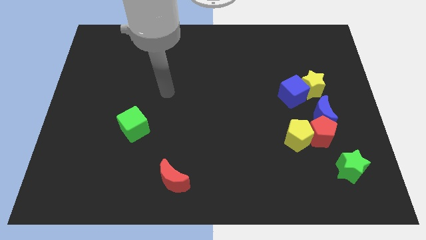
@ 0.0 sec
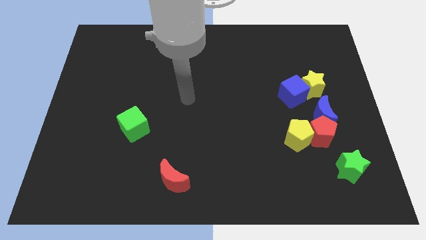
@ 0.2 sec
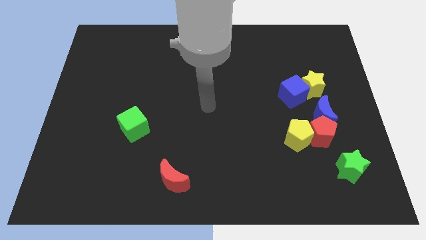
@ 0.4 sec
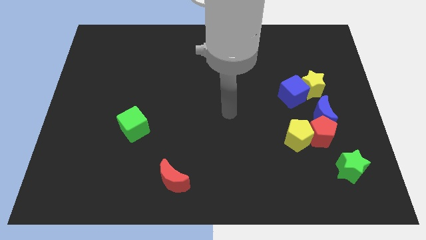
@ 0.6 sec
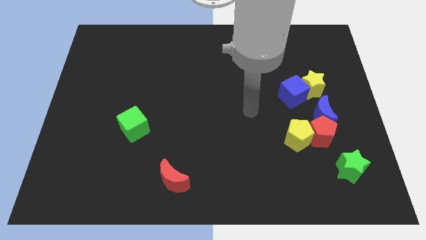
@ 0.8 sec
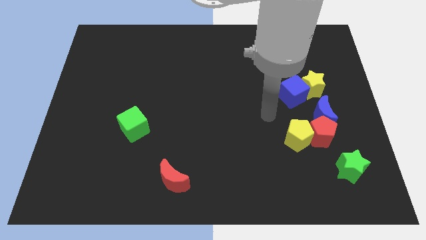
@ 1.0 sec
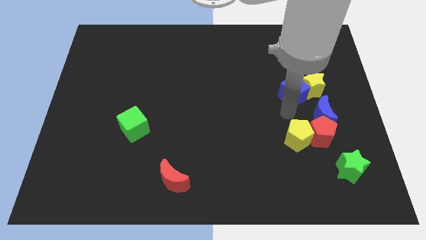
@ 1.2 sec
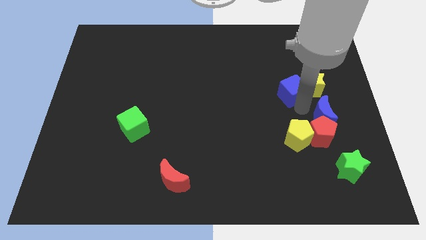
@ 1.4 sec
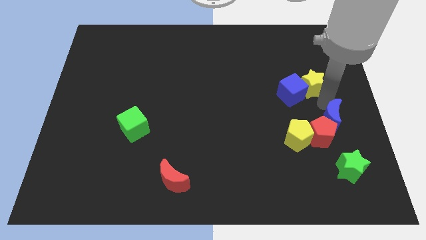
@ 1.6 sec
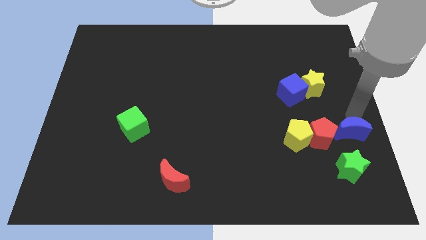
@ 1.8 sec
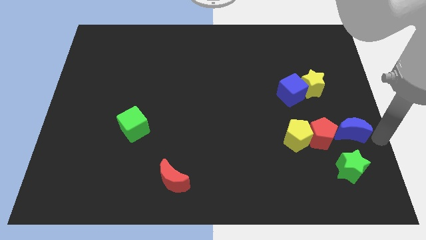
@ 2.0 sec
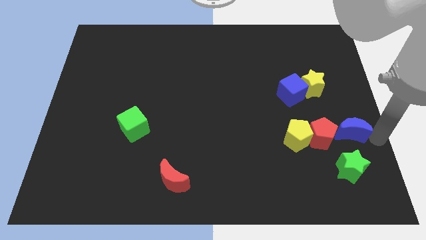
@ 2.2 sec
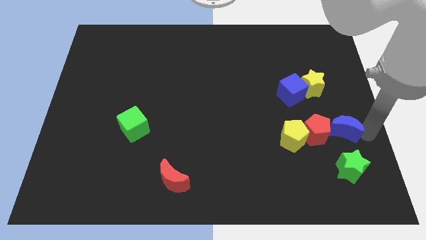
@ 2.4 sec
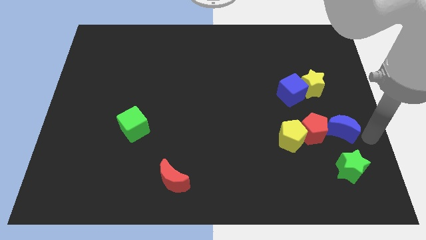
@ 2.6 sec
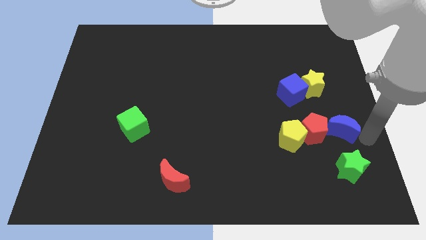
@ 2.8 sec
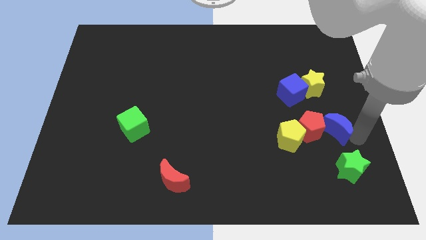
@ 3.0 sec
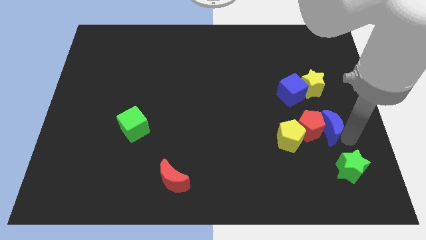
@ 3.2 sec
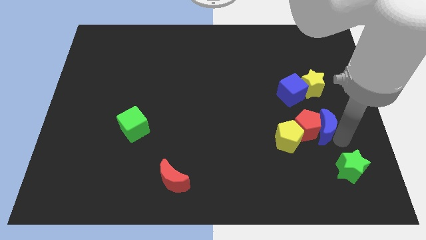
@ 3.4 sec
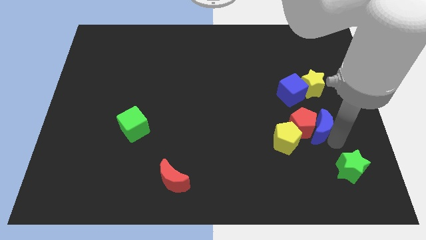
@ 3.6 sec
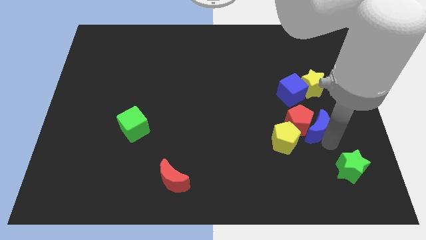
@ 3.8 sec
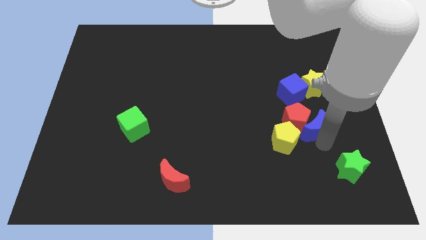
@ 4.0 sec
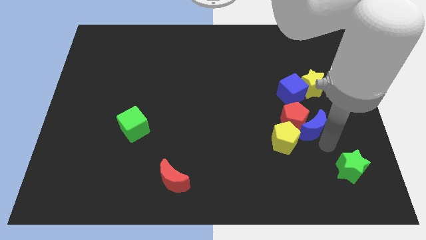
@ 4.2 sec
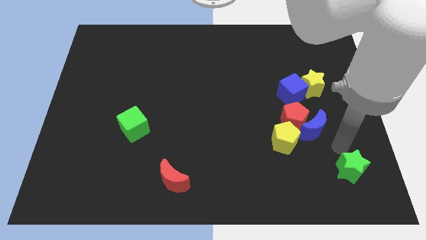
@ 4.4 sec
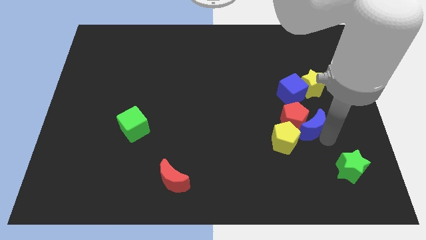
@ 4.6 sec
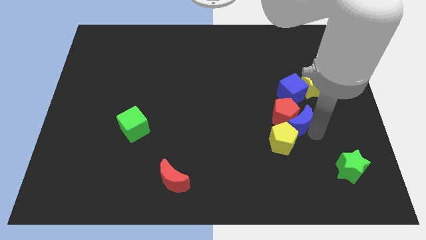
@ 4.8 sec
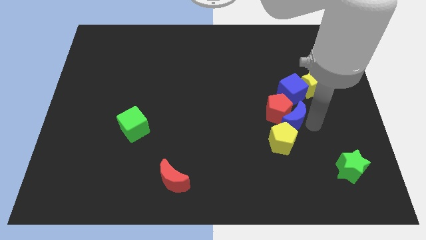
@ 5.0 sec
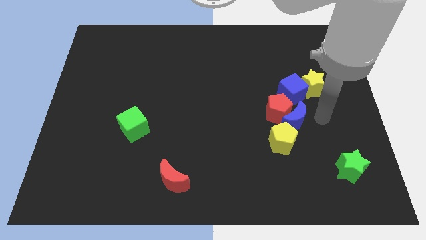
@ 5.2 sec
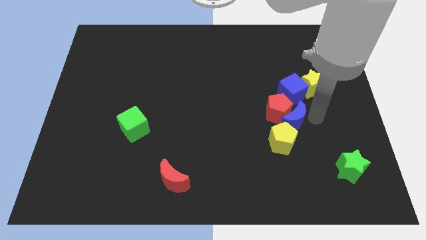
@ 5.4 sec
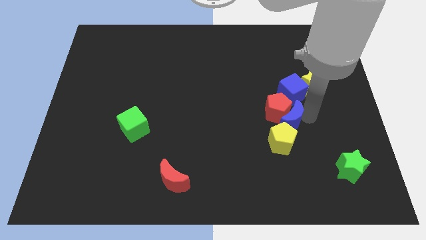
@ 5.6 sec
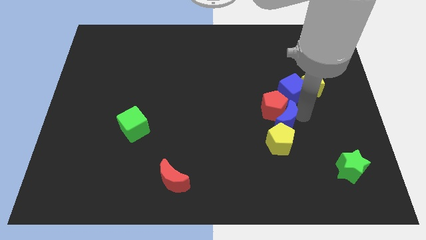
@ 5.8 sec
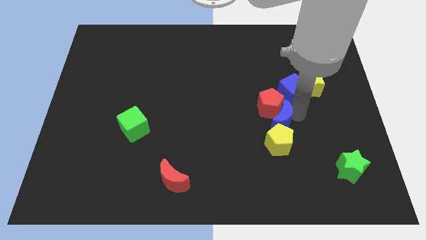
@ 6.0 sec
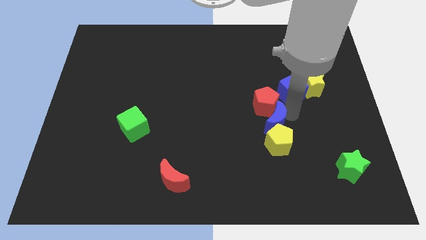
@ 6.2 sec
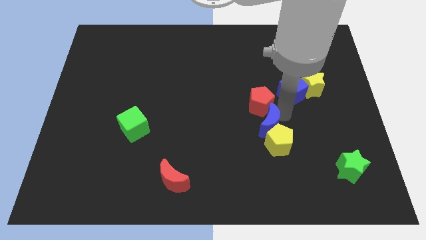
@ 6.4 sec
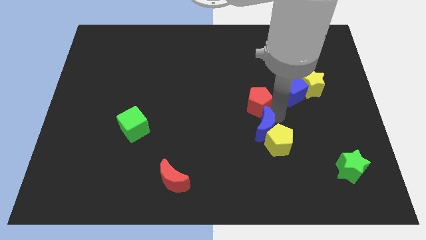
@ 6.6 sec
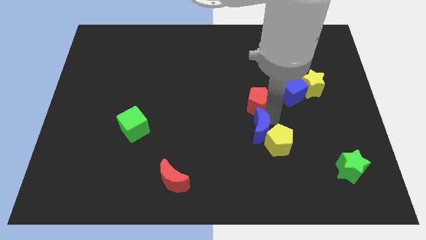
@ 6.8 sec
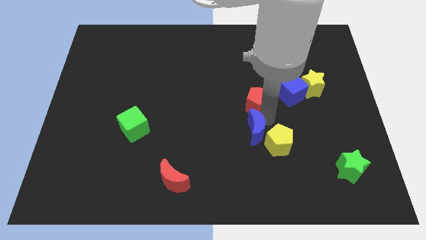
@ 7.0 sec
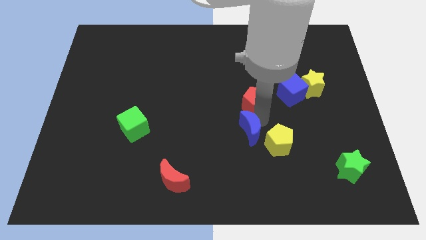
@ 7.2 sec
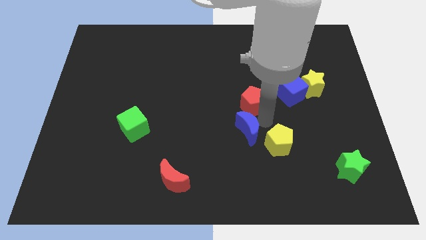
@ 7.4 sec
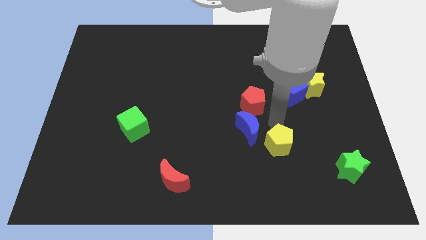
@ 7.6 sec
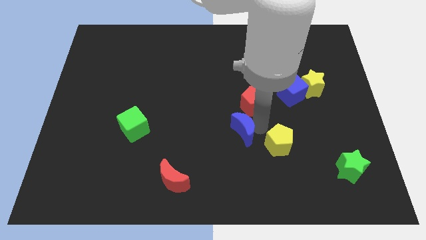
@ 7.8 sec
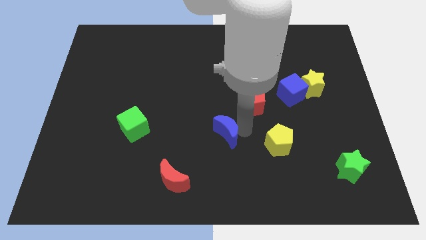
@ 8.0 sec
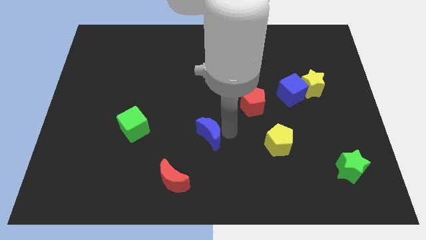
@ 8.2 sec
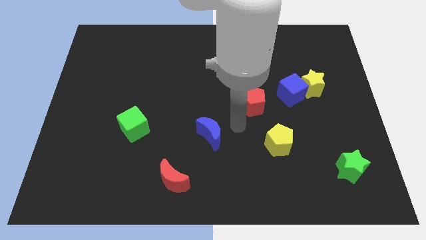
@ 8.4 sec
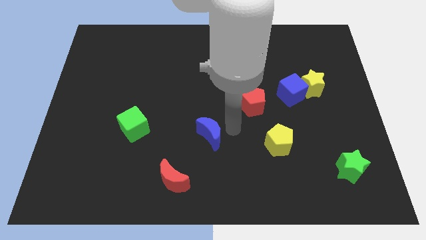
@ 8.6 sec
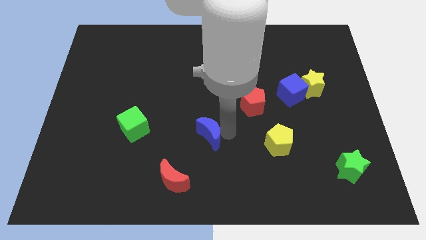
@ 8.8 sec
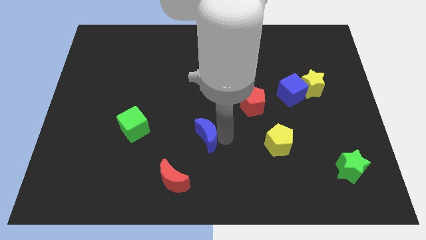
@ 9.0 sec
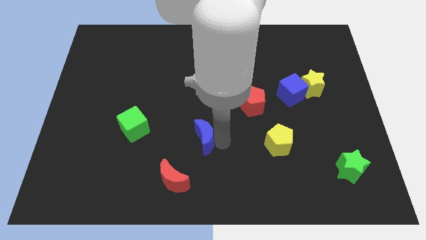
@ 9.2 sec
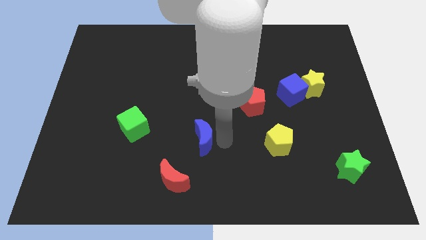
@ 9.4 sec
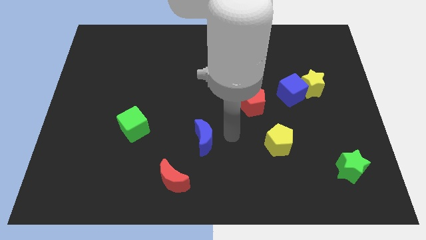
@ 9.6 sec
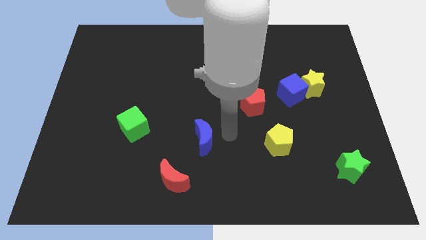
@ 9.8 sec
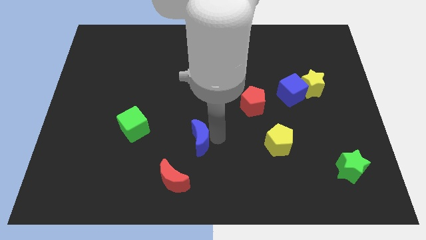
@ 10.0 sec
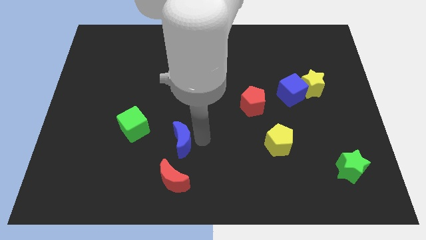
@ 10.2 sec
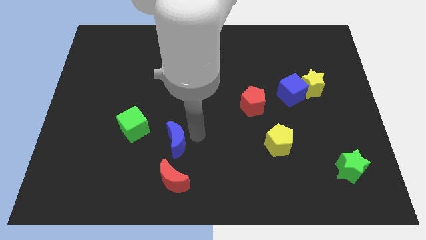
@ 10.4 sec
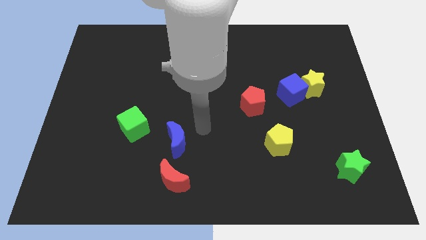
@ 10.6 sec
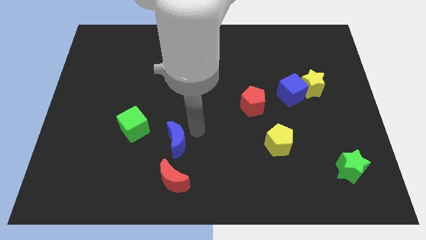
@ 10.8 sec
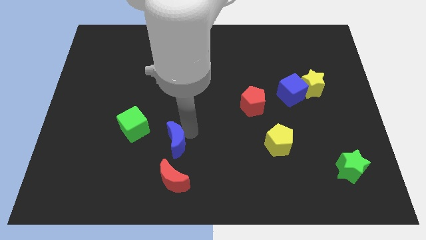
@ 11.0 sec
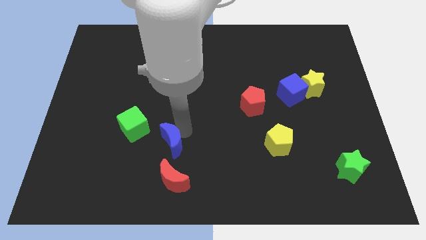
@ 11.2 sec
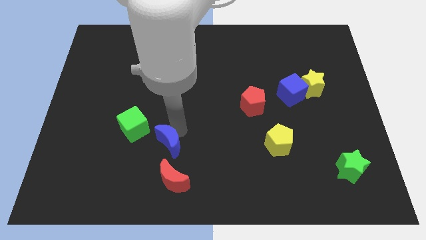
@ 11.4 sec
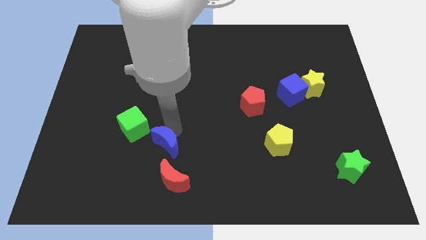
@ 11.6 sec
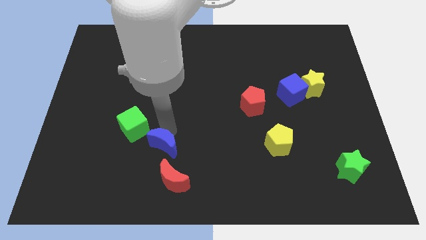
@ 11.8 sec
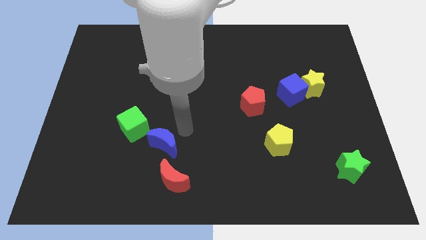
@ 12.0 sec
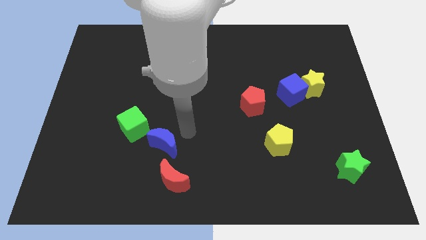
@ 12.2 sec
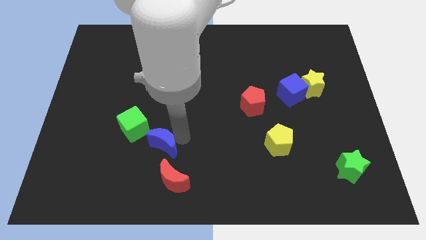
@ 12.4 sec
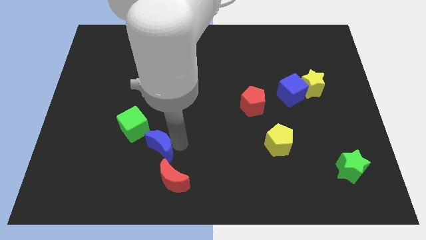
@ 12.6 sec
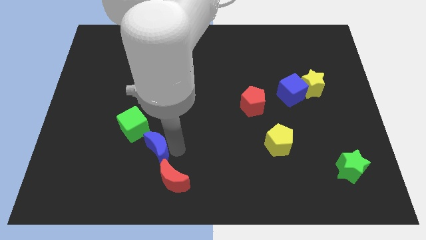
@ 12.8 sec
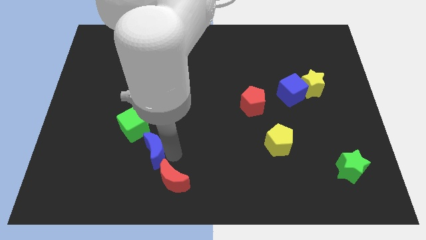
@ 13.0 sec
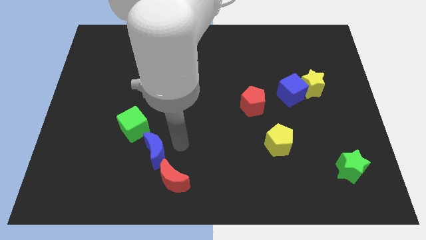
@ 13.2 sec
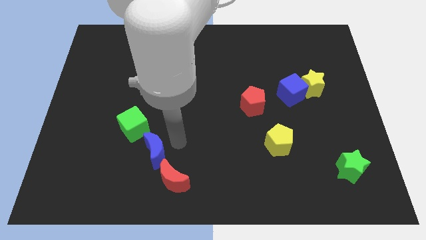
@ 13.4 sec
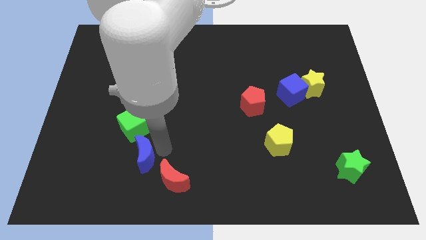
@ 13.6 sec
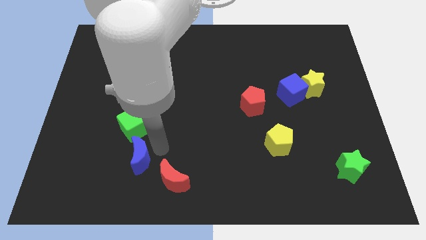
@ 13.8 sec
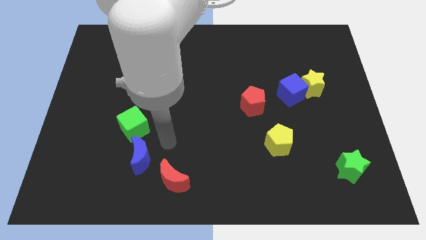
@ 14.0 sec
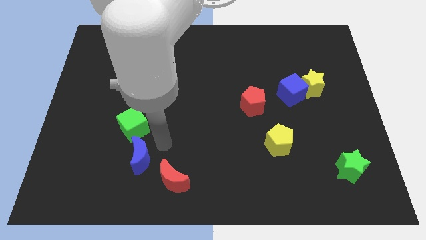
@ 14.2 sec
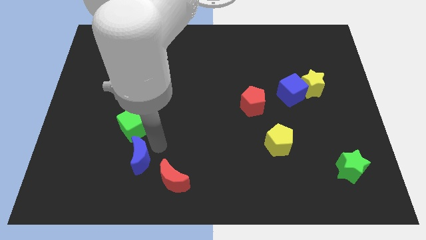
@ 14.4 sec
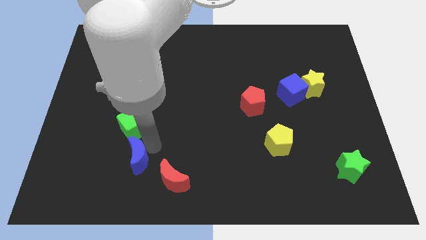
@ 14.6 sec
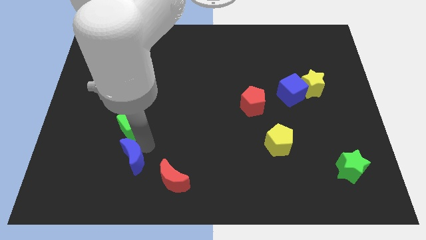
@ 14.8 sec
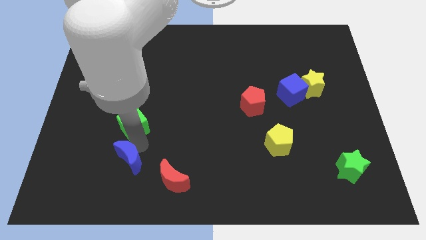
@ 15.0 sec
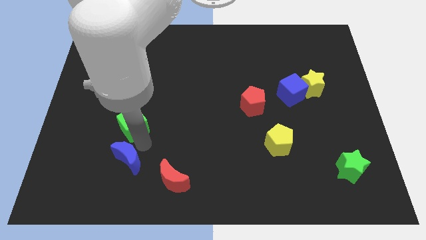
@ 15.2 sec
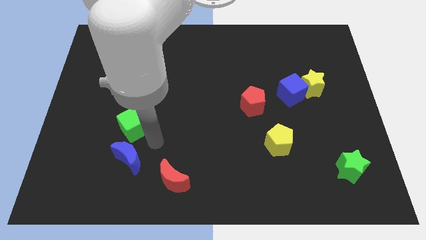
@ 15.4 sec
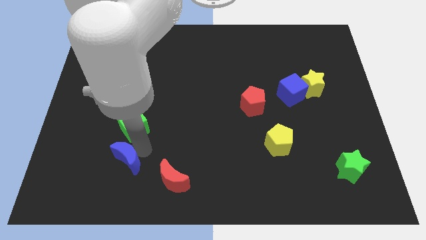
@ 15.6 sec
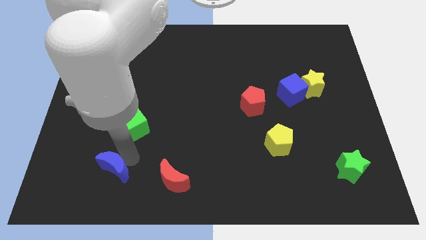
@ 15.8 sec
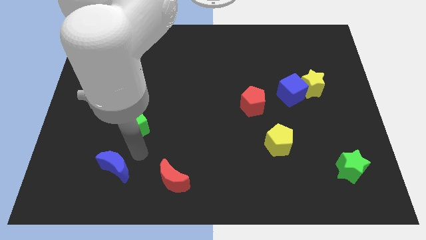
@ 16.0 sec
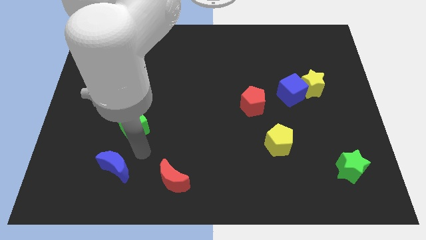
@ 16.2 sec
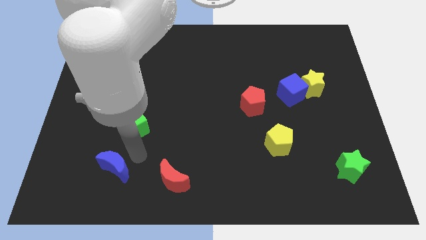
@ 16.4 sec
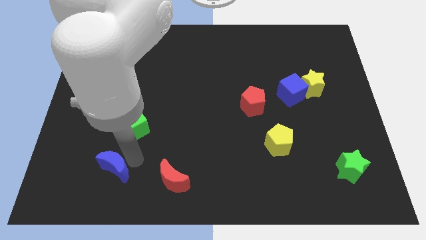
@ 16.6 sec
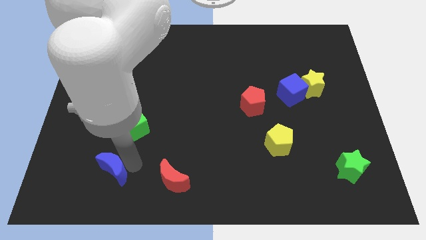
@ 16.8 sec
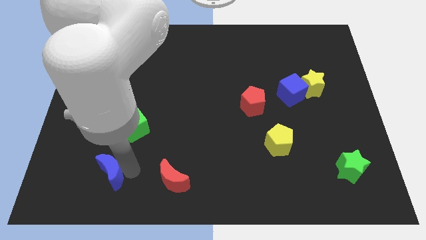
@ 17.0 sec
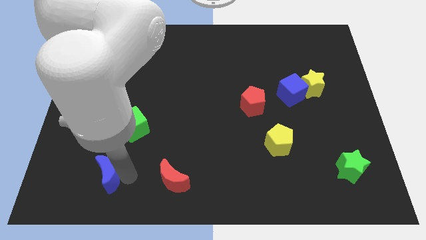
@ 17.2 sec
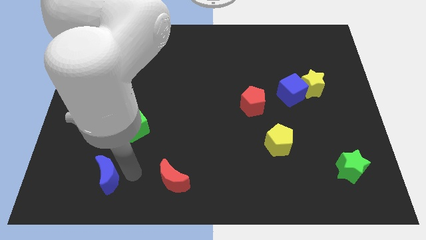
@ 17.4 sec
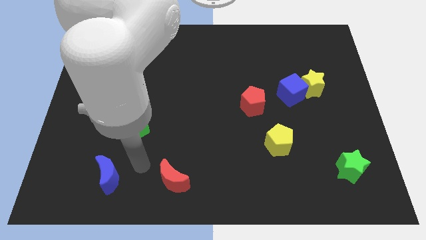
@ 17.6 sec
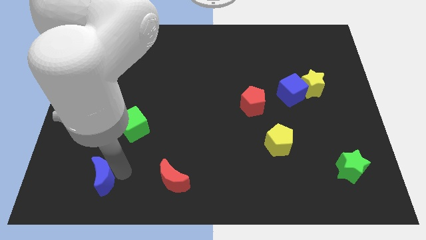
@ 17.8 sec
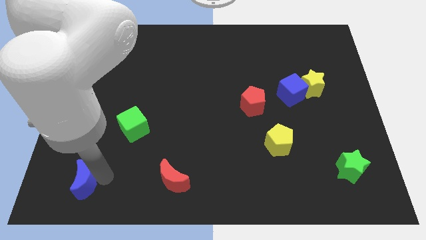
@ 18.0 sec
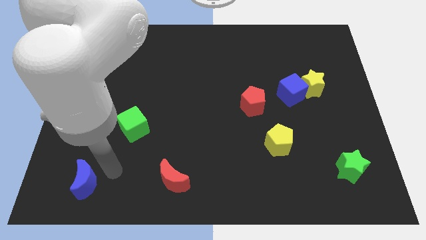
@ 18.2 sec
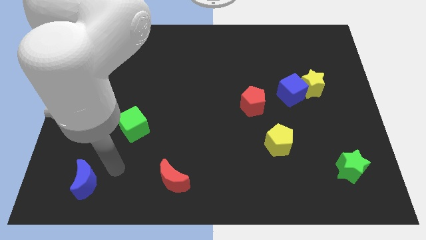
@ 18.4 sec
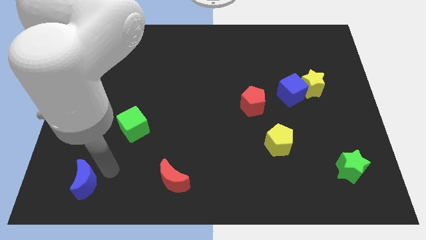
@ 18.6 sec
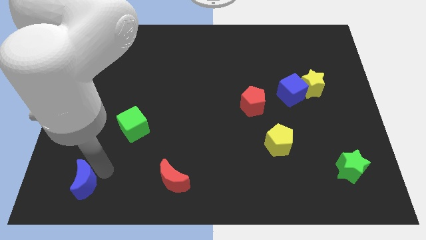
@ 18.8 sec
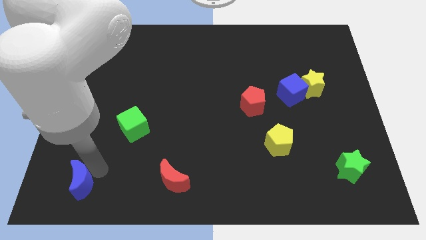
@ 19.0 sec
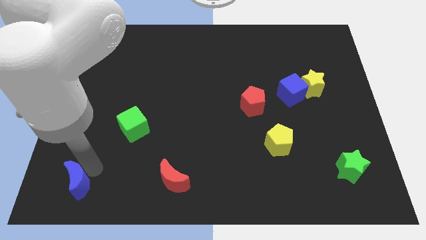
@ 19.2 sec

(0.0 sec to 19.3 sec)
push the blue moon to the bottom left of the board
